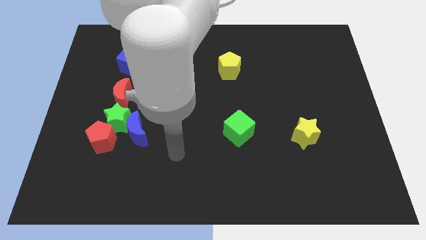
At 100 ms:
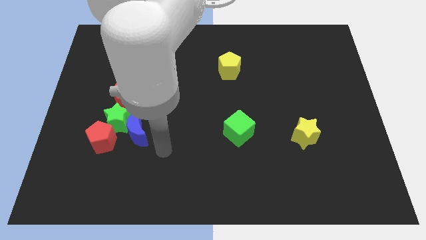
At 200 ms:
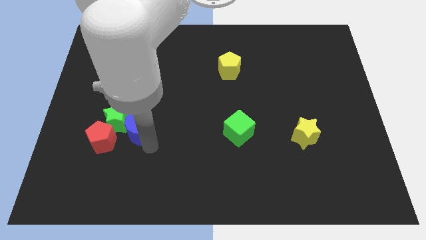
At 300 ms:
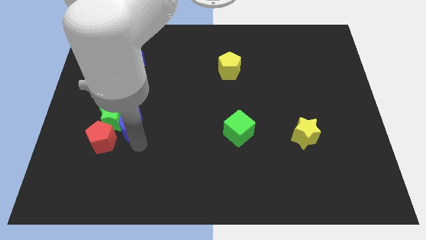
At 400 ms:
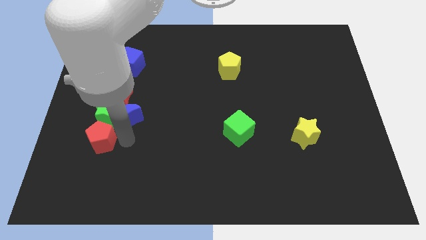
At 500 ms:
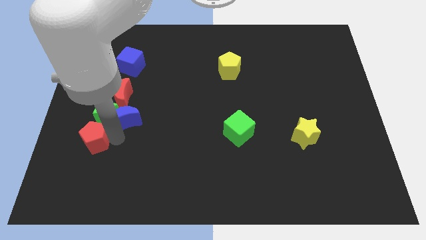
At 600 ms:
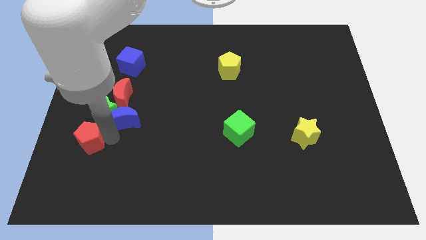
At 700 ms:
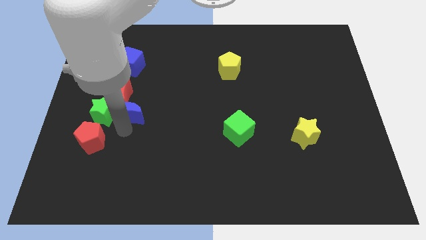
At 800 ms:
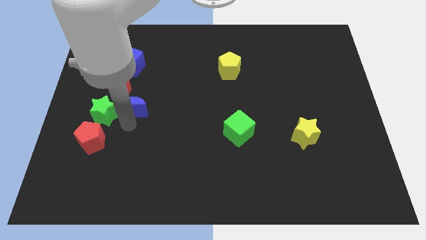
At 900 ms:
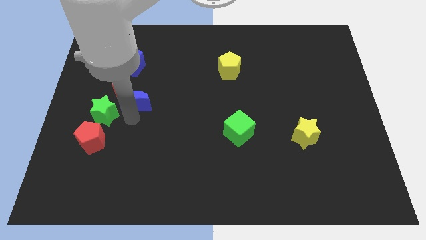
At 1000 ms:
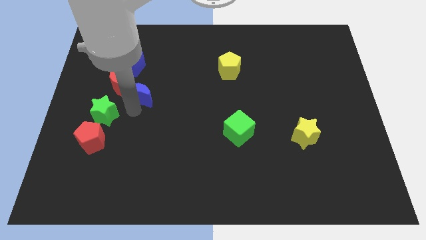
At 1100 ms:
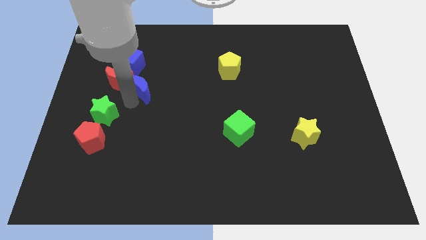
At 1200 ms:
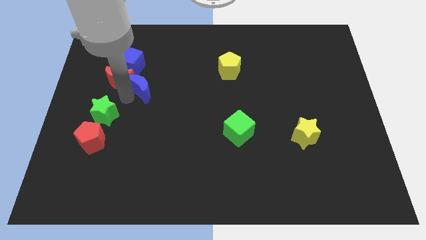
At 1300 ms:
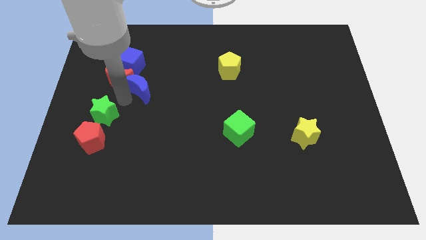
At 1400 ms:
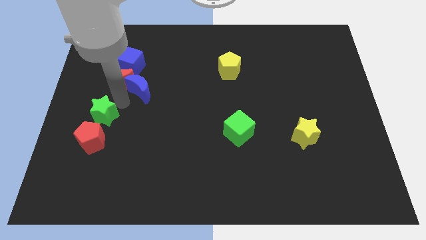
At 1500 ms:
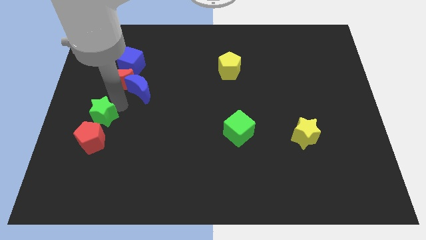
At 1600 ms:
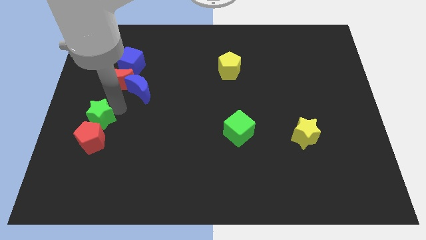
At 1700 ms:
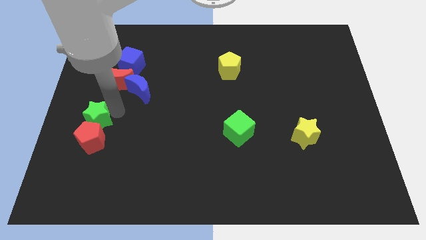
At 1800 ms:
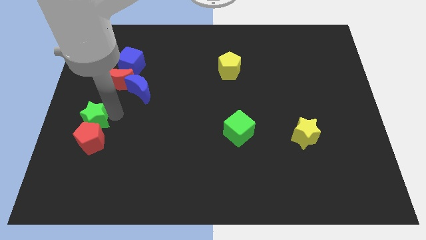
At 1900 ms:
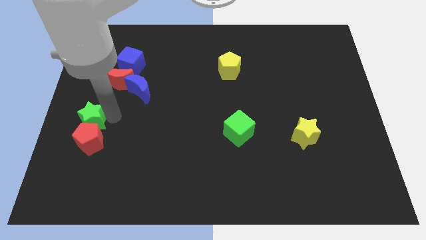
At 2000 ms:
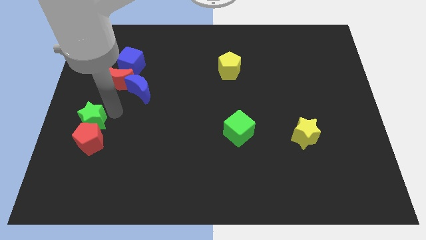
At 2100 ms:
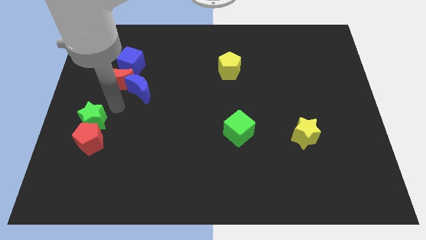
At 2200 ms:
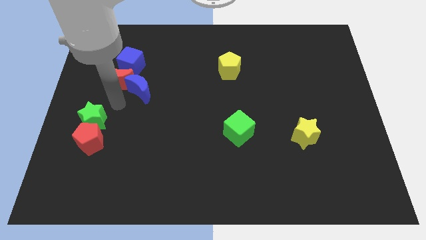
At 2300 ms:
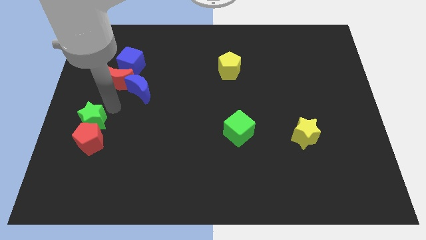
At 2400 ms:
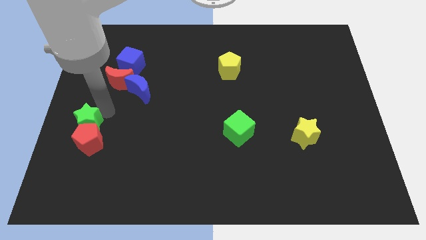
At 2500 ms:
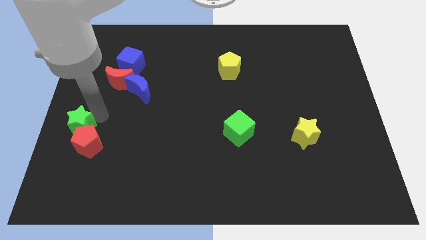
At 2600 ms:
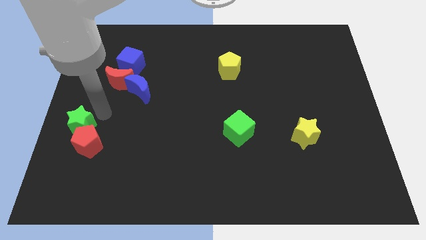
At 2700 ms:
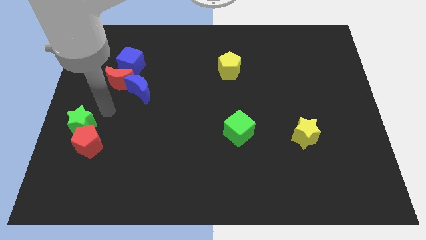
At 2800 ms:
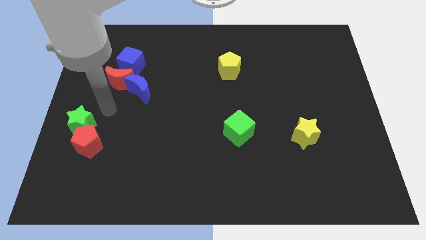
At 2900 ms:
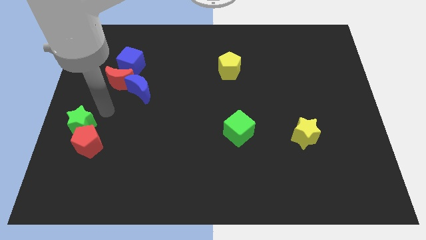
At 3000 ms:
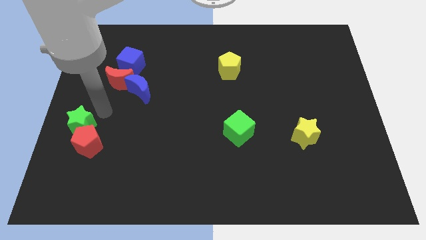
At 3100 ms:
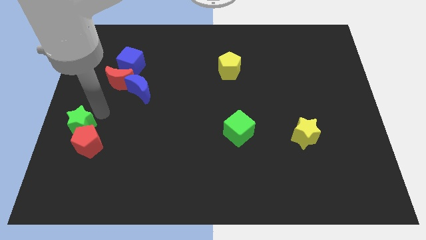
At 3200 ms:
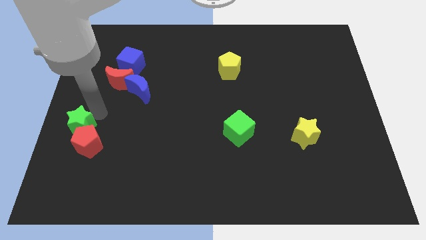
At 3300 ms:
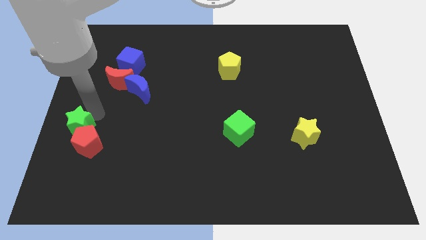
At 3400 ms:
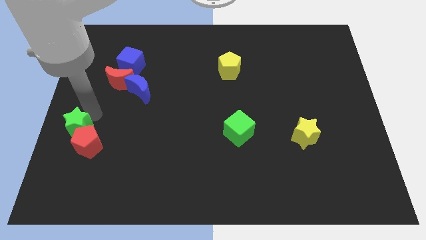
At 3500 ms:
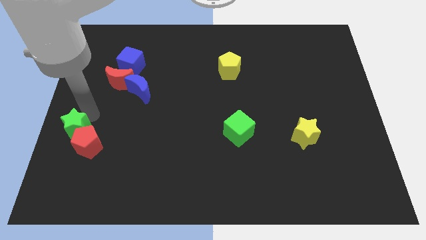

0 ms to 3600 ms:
move the green star away from the blue moon, red pentagon, and red moon

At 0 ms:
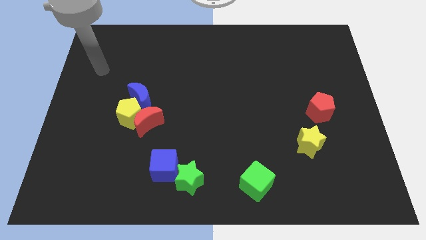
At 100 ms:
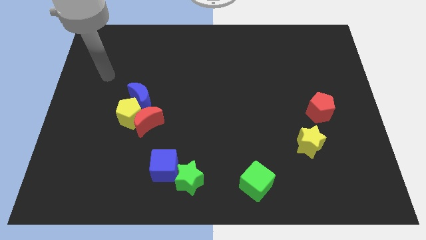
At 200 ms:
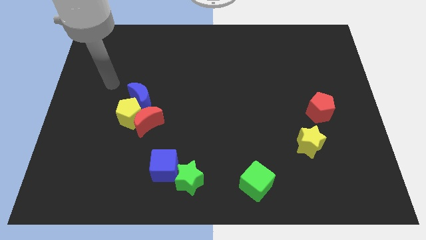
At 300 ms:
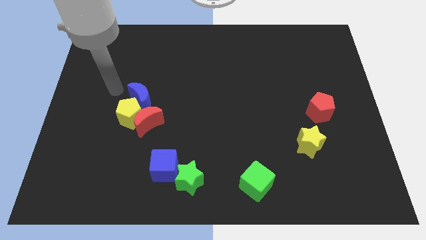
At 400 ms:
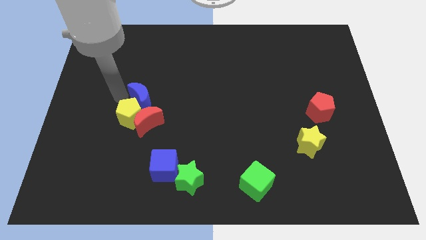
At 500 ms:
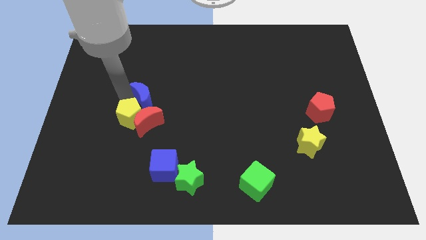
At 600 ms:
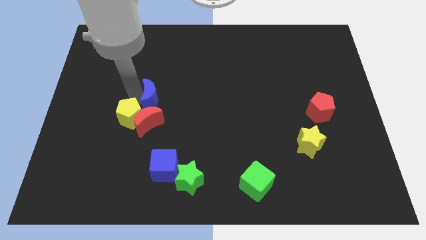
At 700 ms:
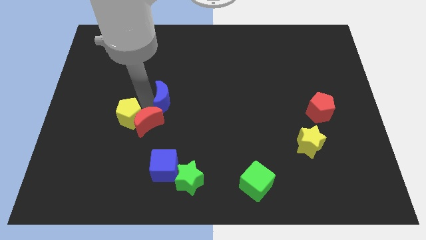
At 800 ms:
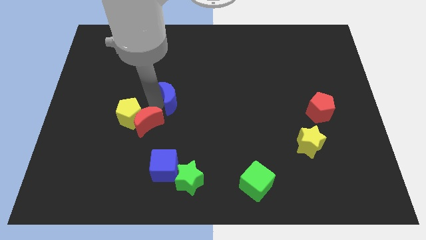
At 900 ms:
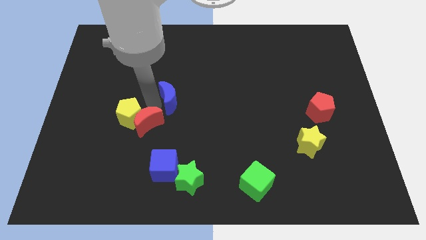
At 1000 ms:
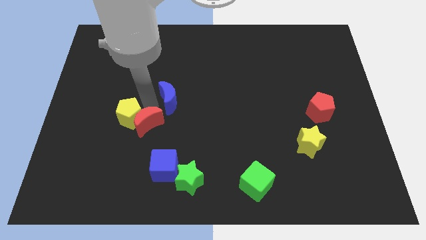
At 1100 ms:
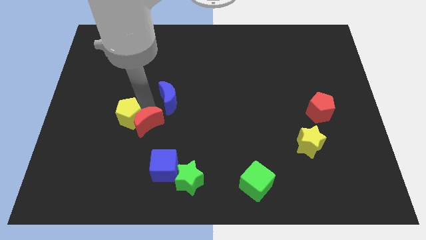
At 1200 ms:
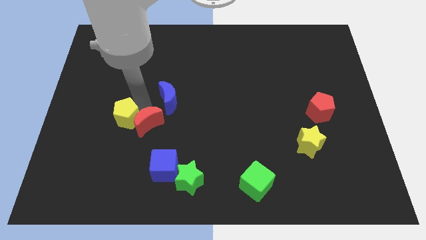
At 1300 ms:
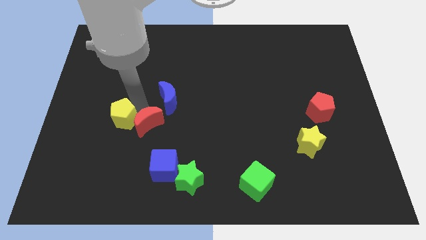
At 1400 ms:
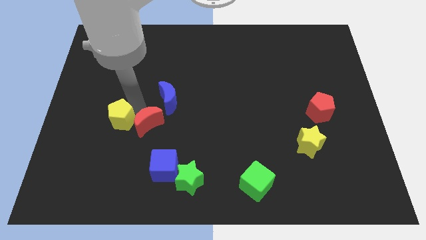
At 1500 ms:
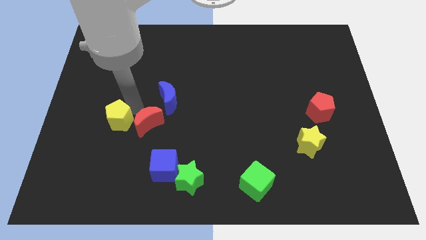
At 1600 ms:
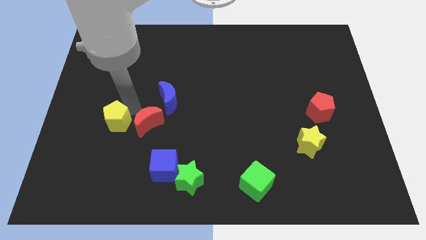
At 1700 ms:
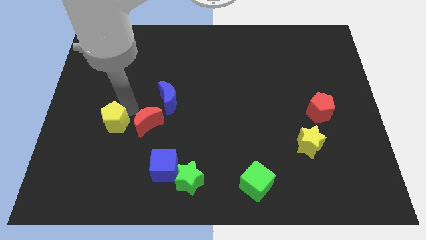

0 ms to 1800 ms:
pull the yellow pentagon apart from the red moon and blue moon

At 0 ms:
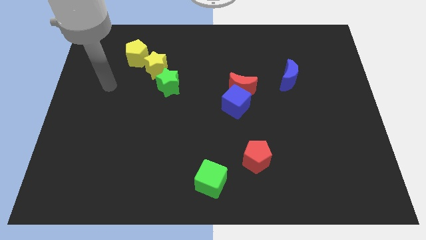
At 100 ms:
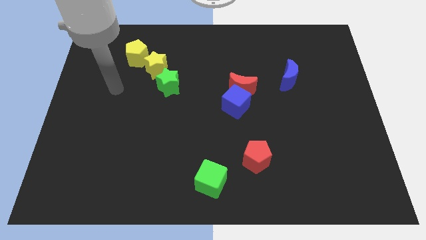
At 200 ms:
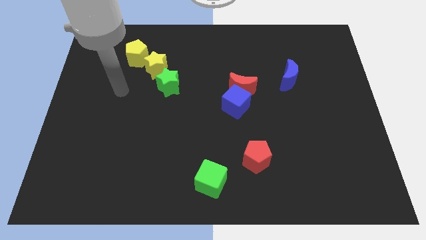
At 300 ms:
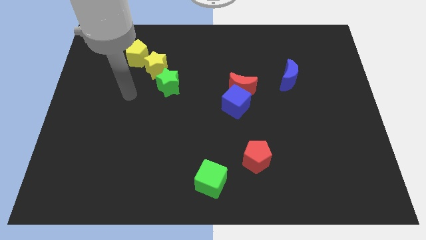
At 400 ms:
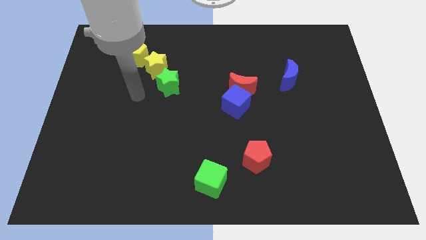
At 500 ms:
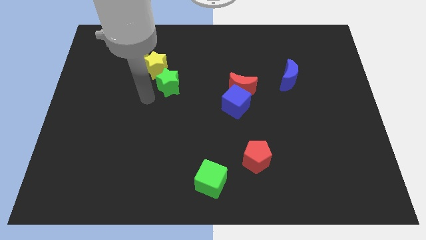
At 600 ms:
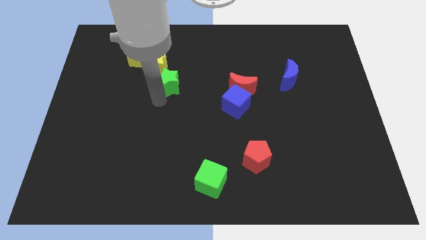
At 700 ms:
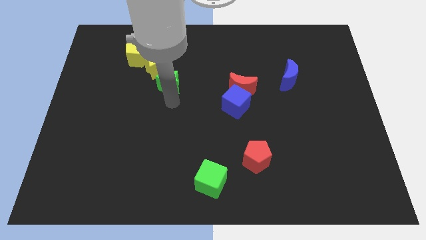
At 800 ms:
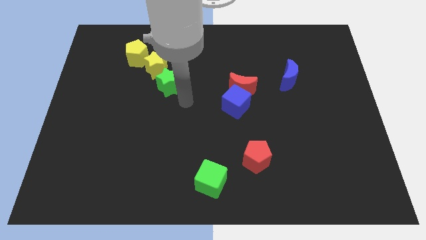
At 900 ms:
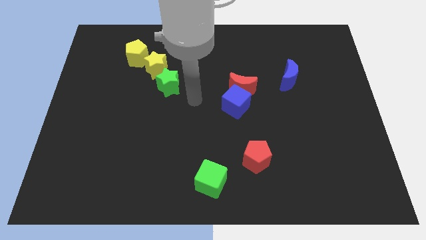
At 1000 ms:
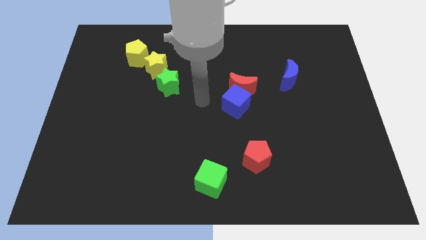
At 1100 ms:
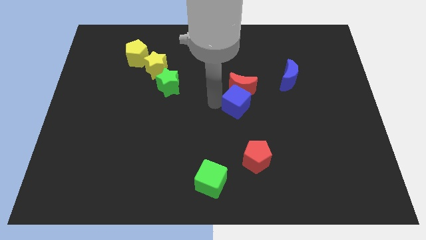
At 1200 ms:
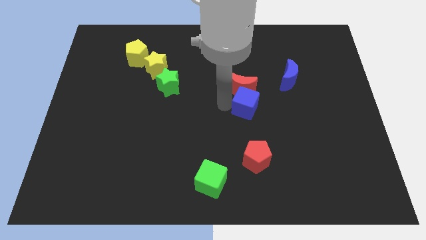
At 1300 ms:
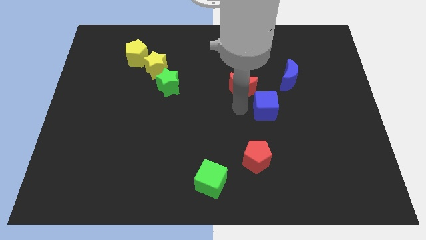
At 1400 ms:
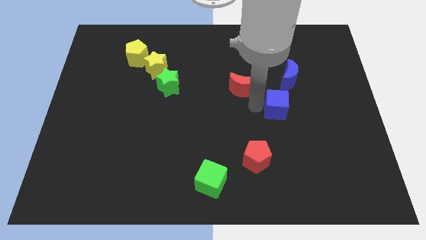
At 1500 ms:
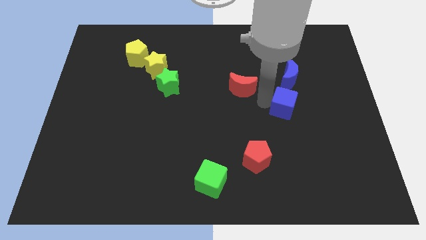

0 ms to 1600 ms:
pull the red moon apart from the blue cube

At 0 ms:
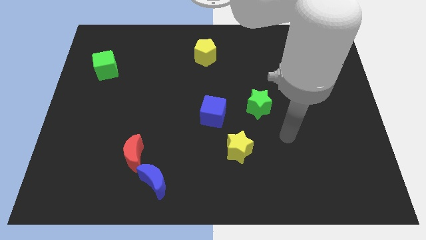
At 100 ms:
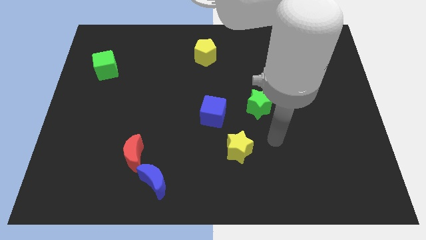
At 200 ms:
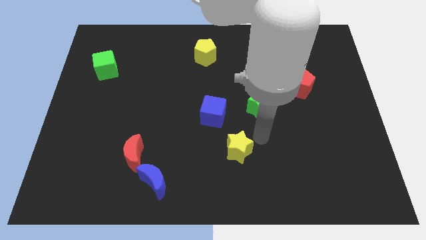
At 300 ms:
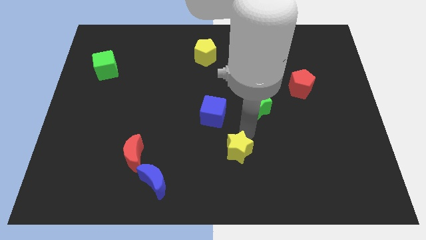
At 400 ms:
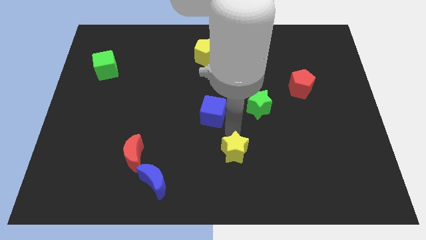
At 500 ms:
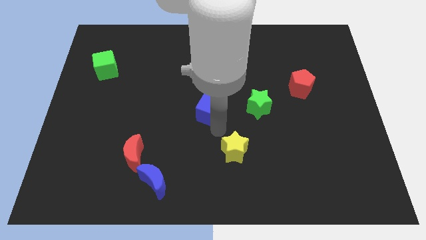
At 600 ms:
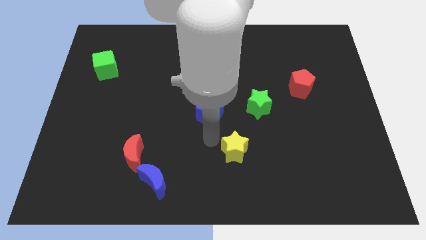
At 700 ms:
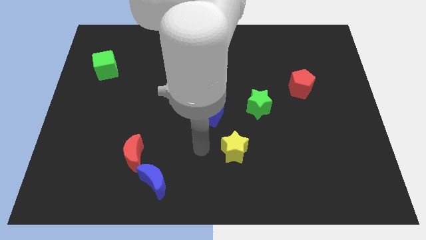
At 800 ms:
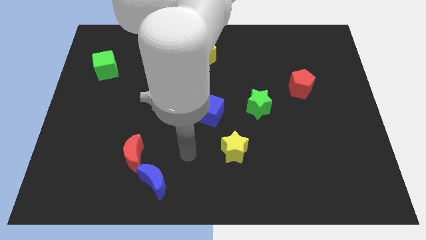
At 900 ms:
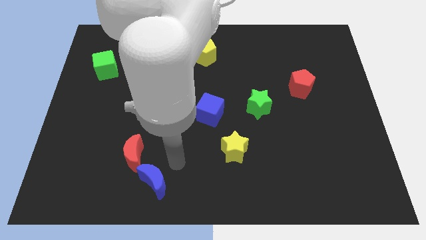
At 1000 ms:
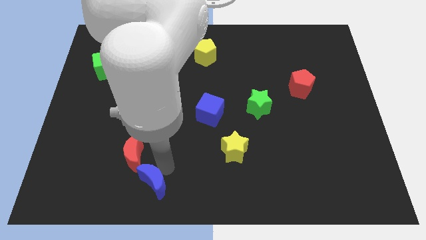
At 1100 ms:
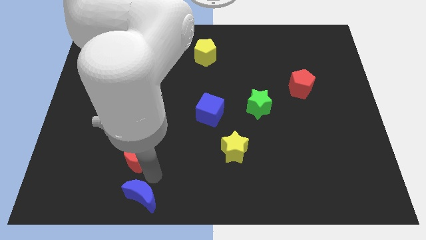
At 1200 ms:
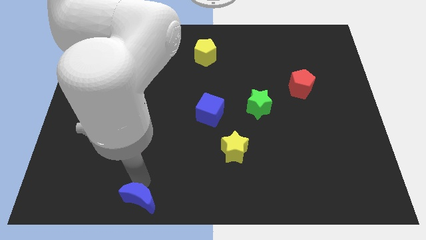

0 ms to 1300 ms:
move the red moon away from the blue moon

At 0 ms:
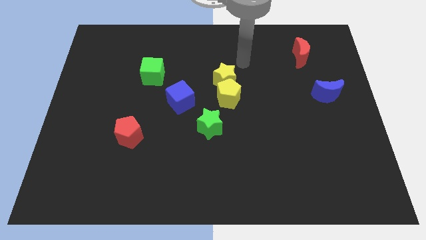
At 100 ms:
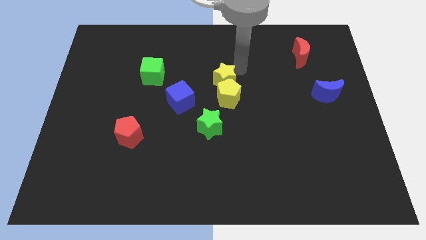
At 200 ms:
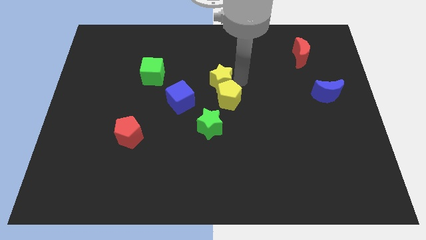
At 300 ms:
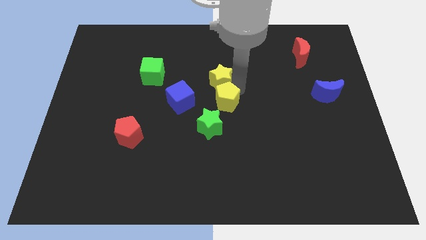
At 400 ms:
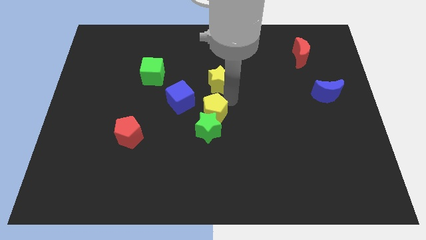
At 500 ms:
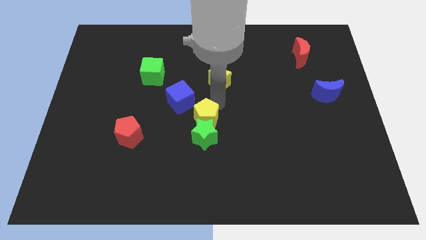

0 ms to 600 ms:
pull the yellow star apart from the yellow pentagon

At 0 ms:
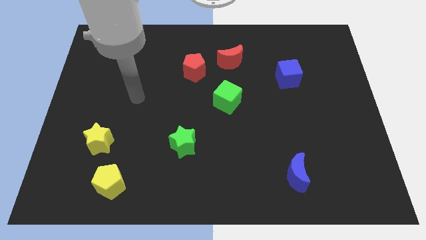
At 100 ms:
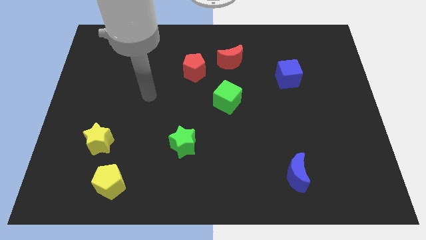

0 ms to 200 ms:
move the red moon away from the red pentagon

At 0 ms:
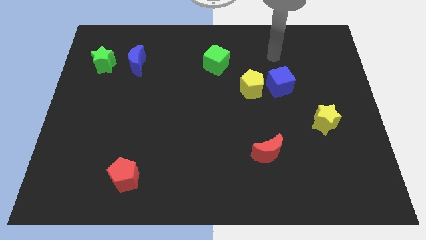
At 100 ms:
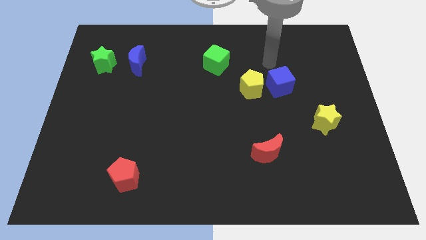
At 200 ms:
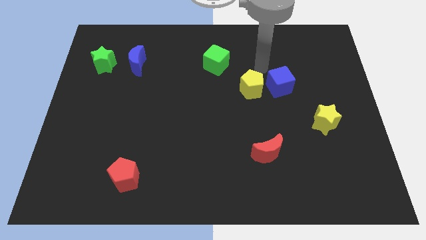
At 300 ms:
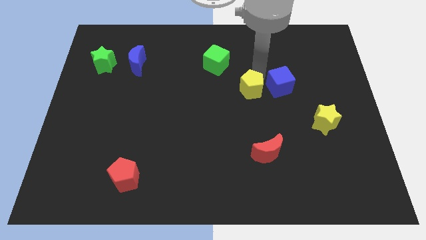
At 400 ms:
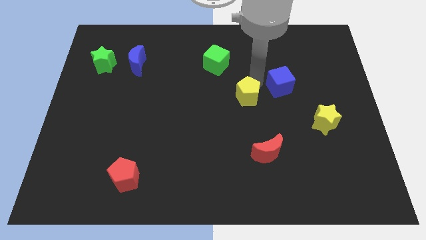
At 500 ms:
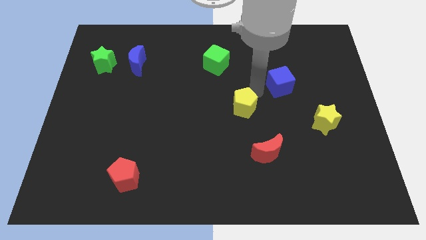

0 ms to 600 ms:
pull the blue cube apart from the yellow pentagon
